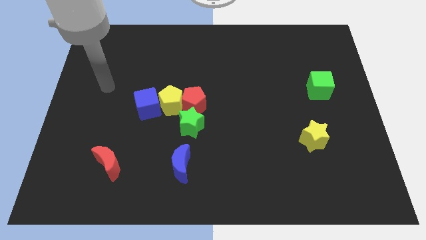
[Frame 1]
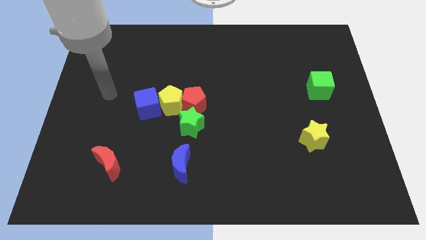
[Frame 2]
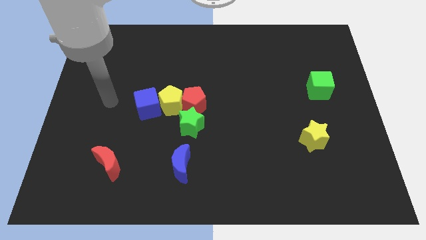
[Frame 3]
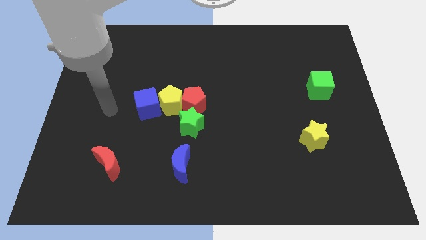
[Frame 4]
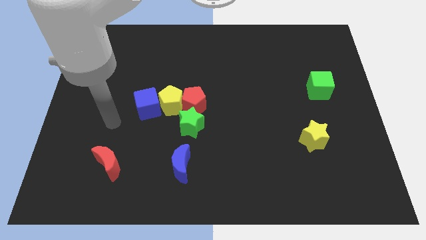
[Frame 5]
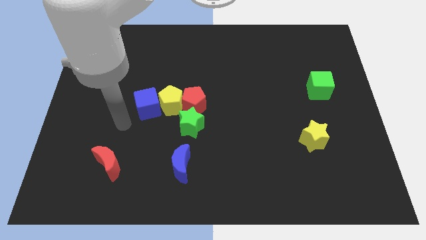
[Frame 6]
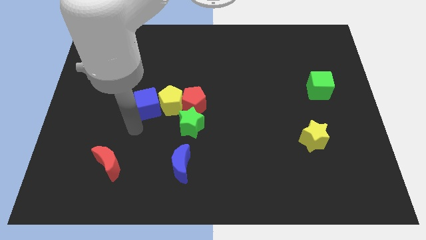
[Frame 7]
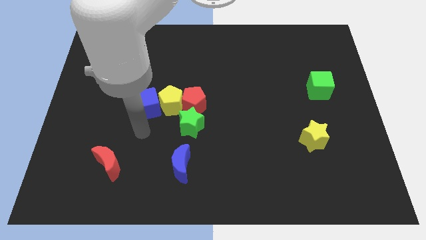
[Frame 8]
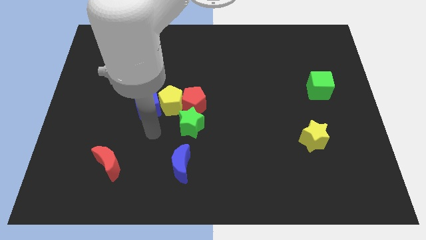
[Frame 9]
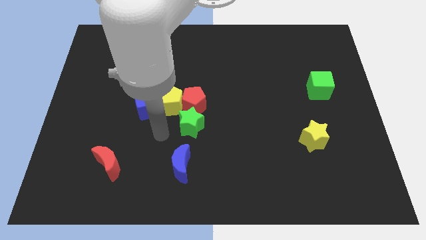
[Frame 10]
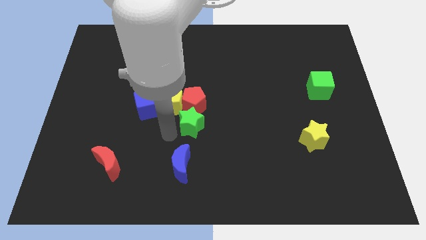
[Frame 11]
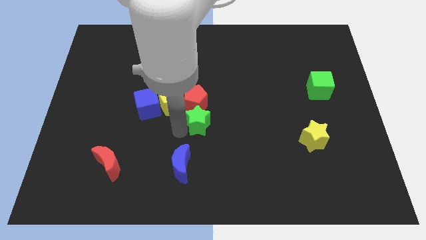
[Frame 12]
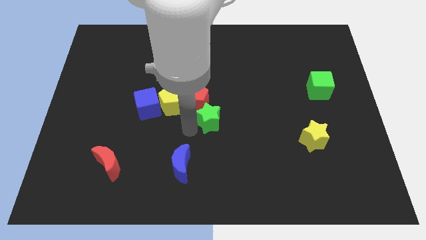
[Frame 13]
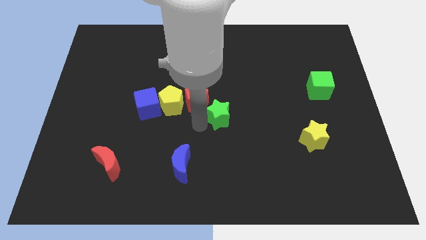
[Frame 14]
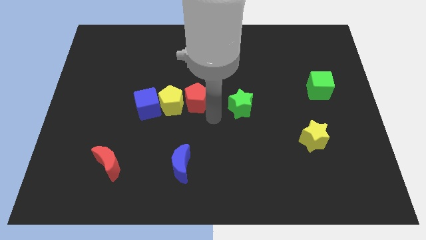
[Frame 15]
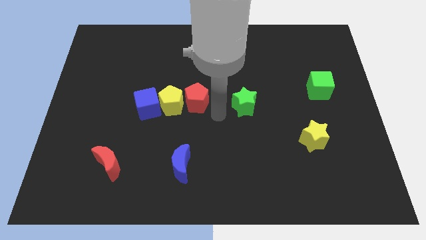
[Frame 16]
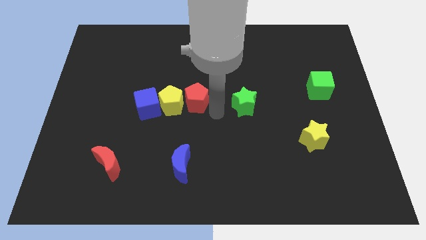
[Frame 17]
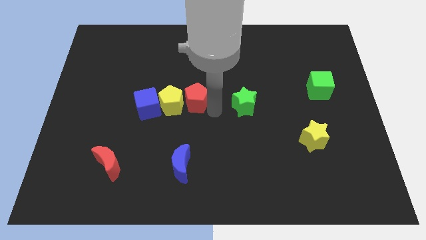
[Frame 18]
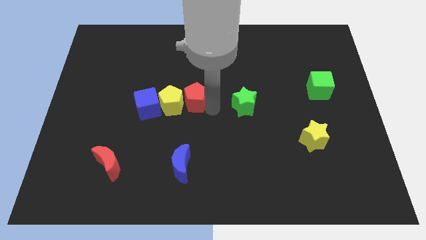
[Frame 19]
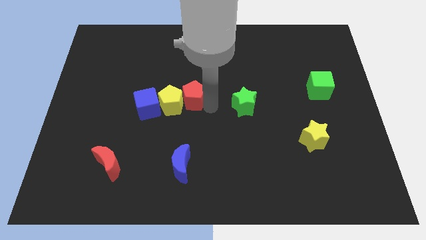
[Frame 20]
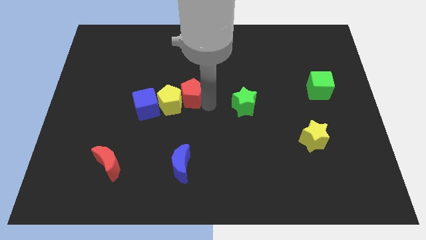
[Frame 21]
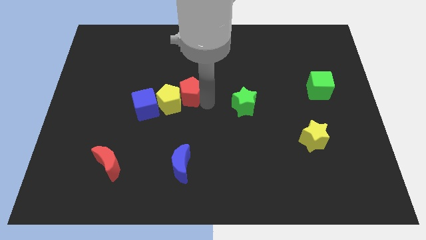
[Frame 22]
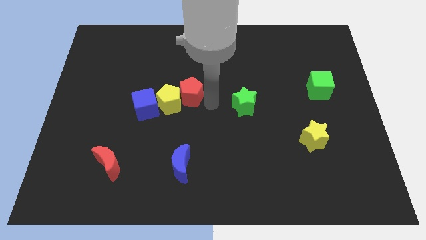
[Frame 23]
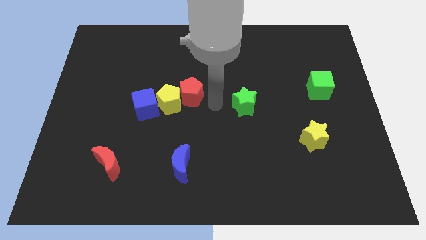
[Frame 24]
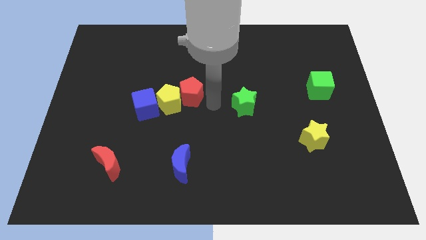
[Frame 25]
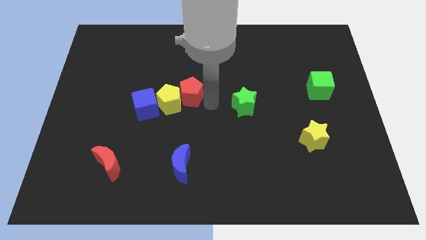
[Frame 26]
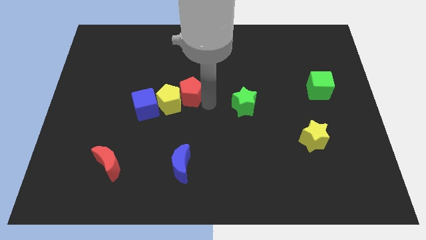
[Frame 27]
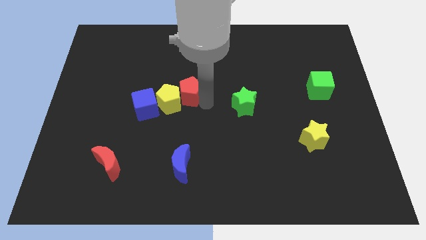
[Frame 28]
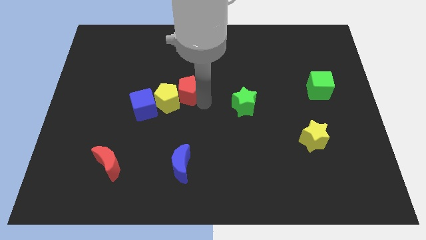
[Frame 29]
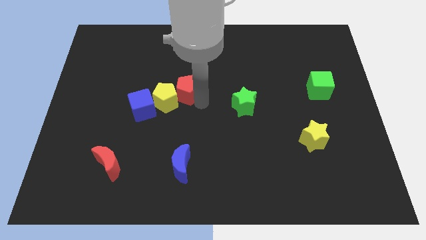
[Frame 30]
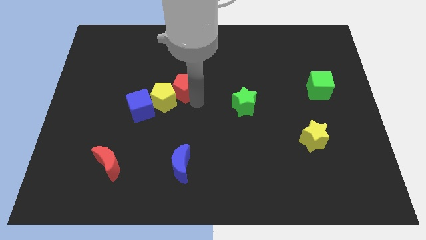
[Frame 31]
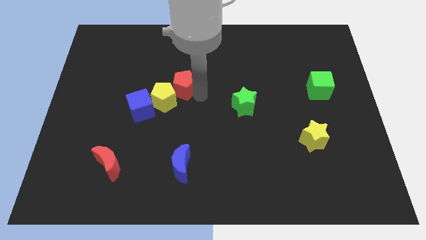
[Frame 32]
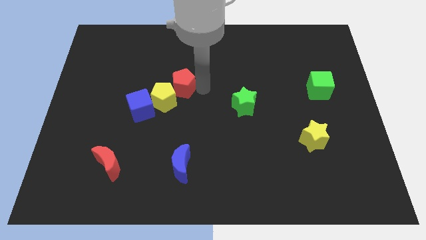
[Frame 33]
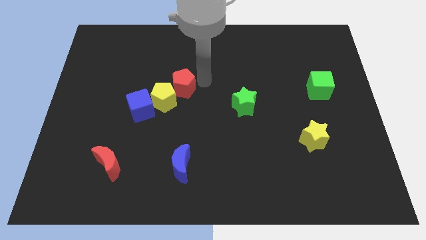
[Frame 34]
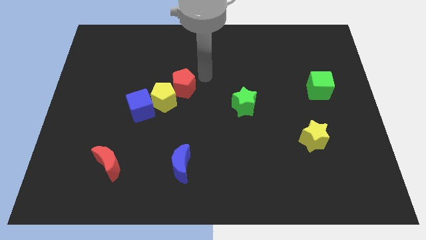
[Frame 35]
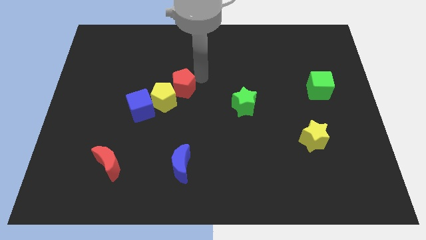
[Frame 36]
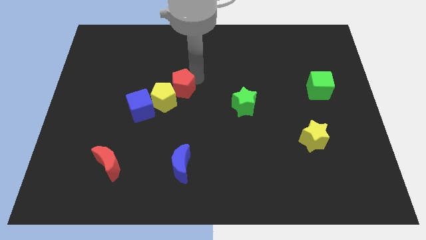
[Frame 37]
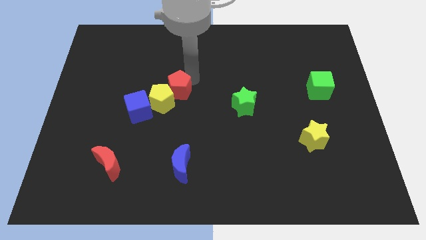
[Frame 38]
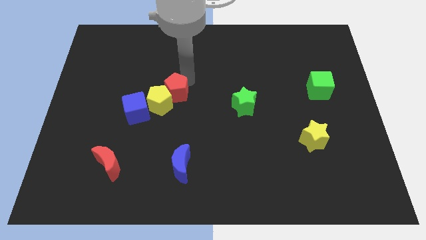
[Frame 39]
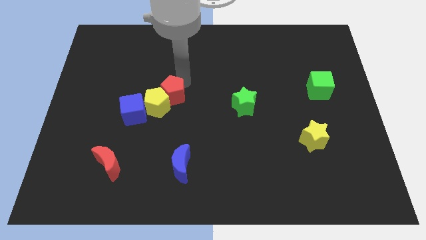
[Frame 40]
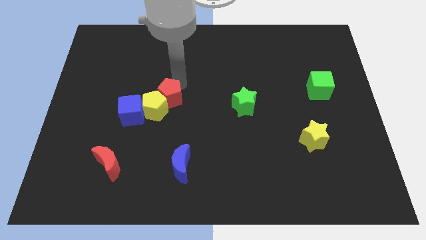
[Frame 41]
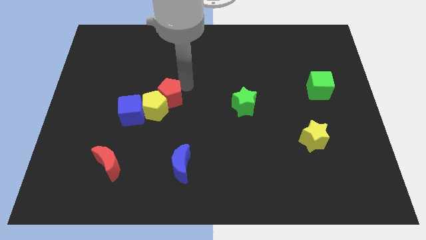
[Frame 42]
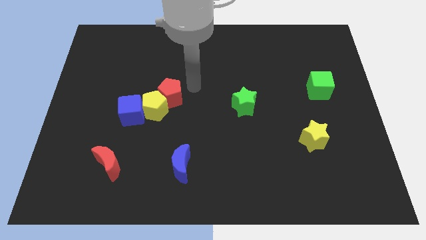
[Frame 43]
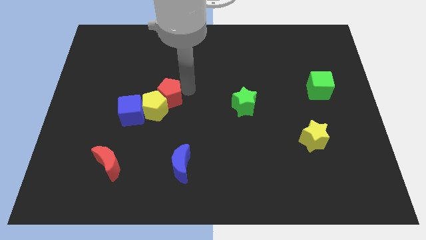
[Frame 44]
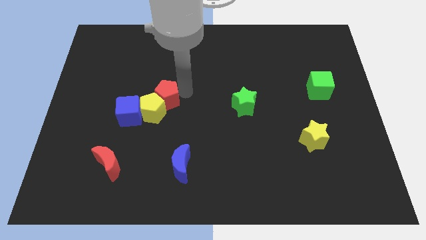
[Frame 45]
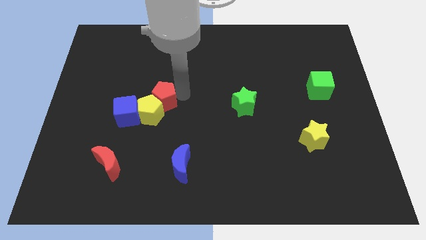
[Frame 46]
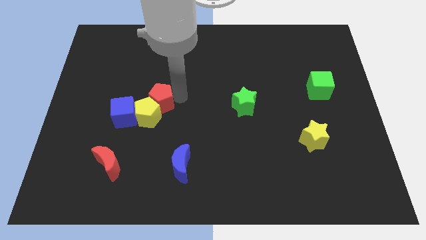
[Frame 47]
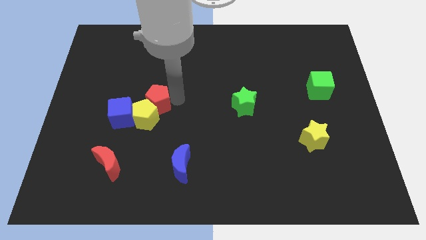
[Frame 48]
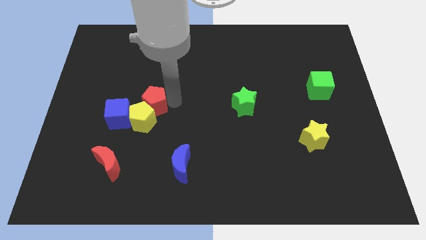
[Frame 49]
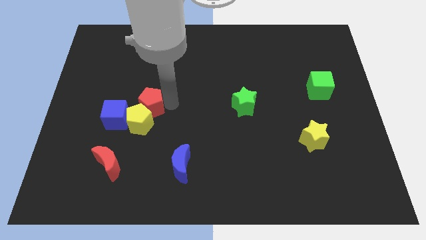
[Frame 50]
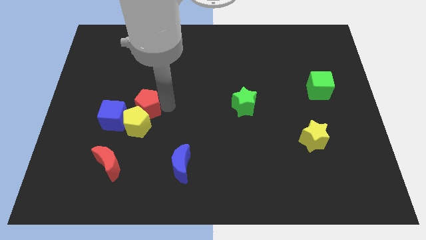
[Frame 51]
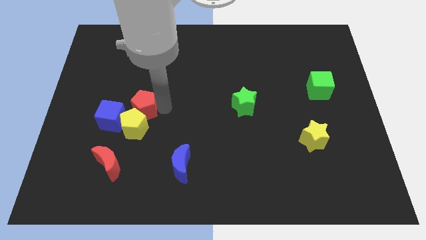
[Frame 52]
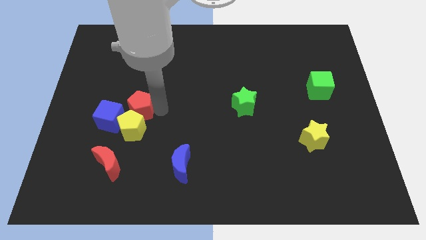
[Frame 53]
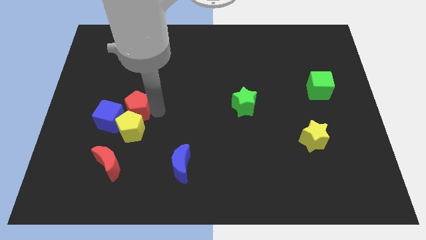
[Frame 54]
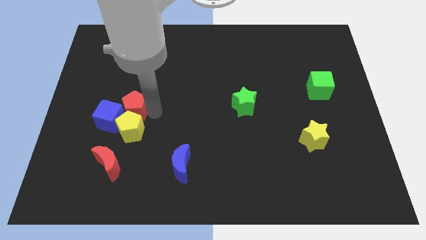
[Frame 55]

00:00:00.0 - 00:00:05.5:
push the red pentagon towards the blue cube

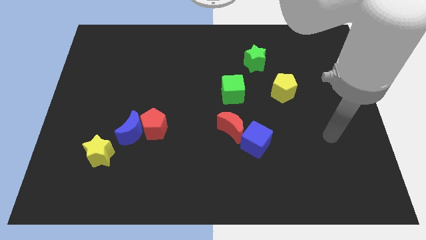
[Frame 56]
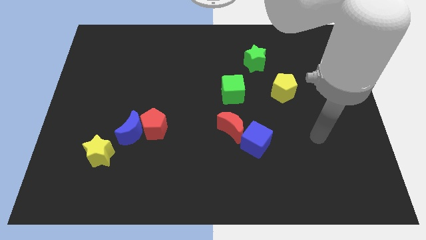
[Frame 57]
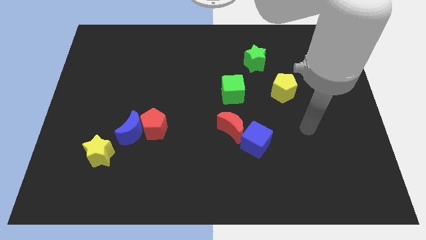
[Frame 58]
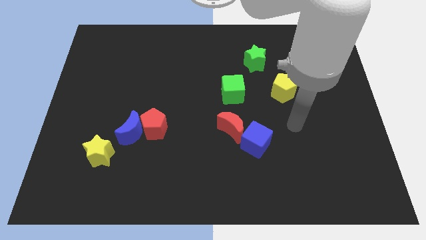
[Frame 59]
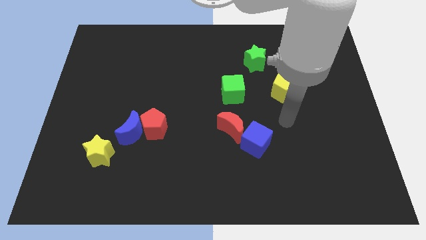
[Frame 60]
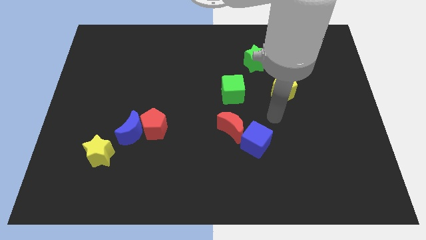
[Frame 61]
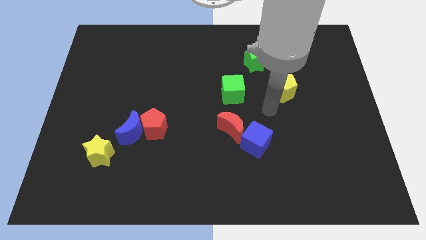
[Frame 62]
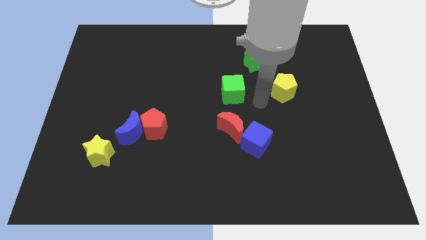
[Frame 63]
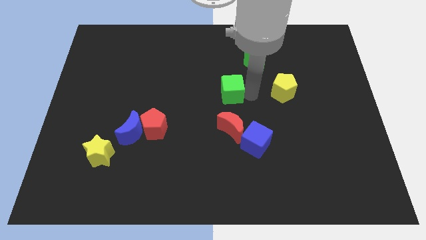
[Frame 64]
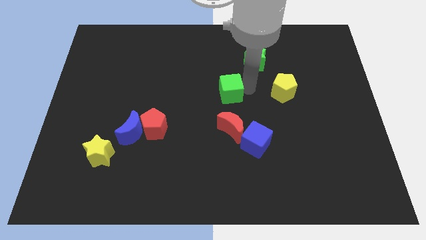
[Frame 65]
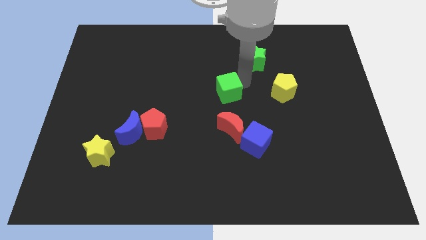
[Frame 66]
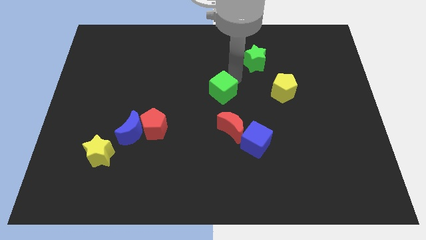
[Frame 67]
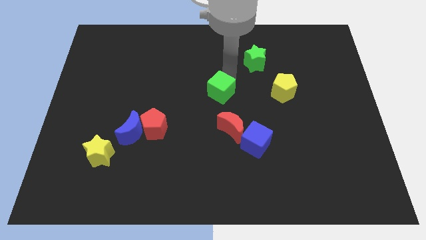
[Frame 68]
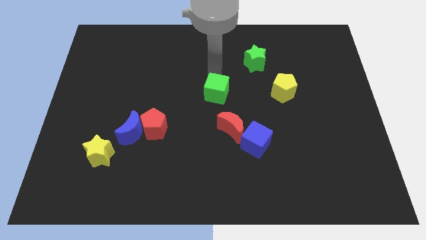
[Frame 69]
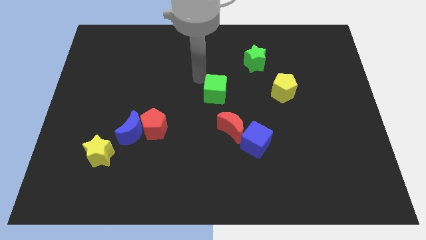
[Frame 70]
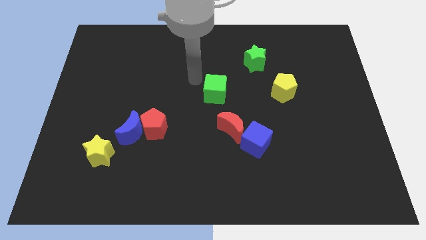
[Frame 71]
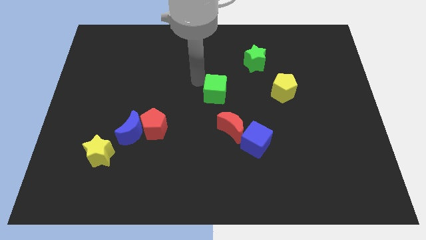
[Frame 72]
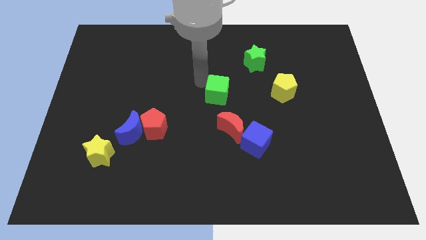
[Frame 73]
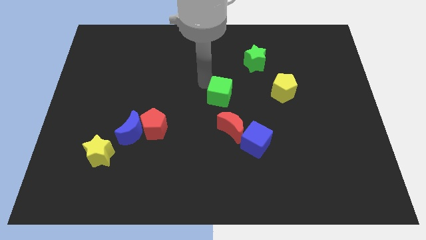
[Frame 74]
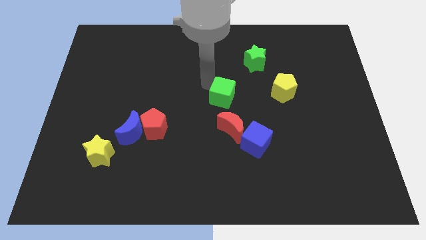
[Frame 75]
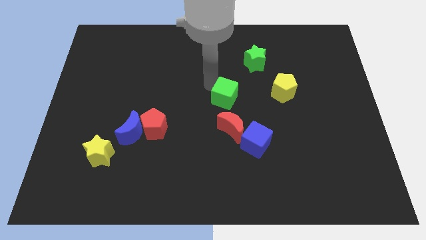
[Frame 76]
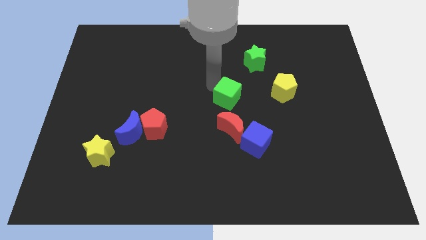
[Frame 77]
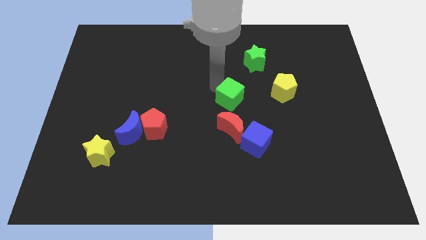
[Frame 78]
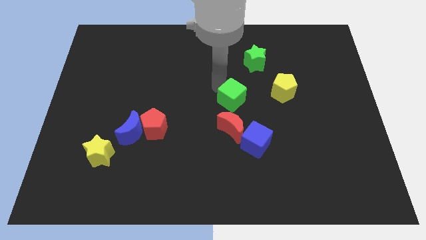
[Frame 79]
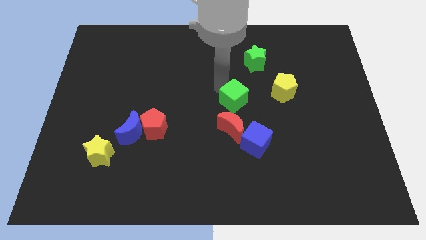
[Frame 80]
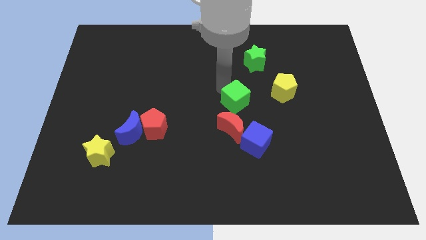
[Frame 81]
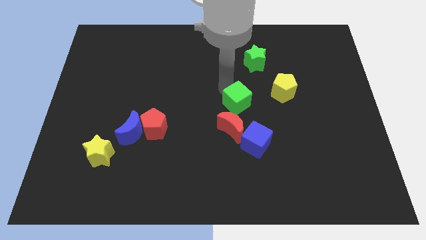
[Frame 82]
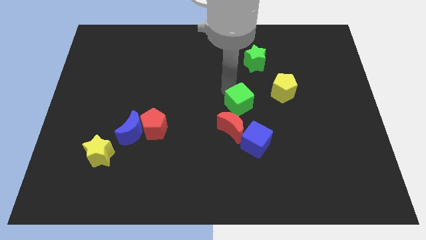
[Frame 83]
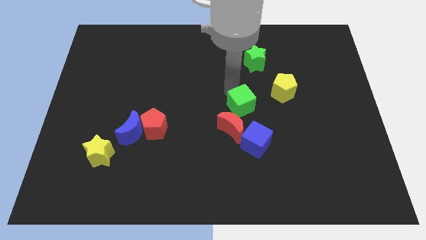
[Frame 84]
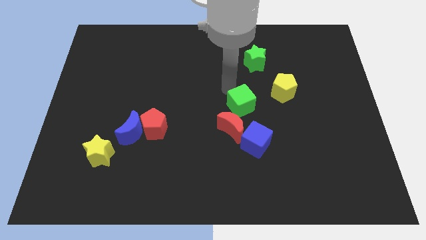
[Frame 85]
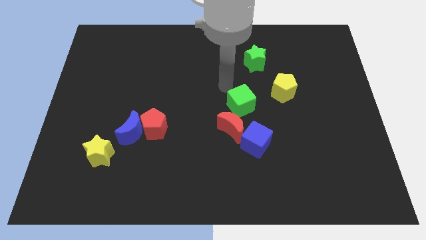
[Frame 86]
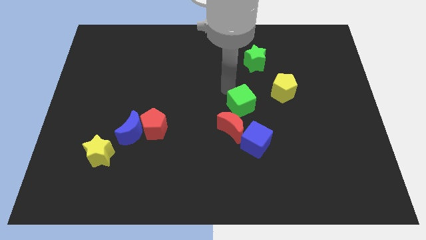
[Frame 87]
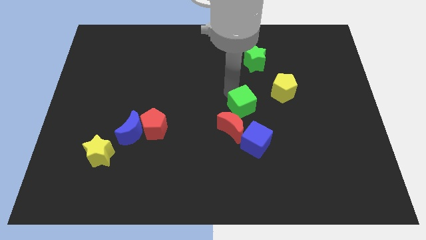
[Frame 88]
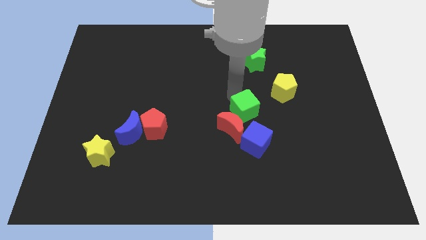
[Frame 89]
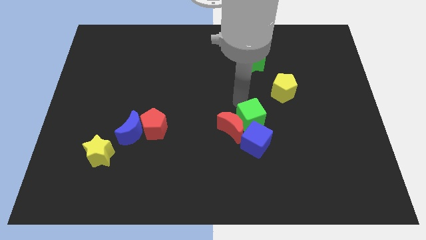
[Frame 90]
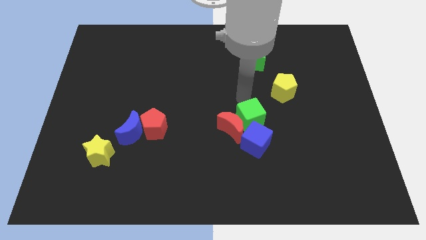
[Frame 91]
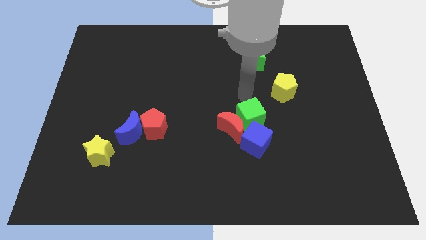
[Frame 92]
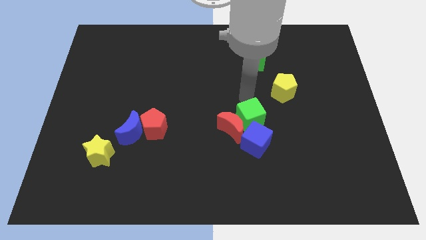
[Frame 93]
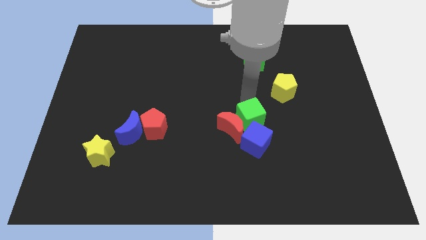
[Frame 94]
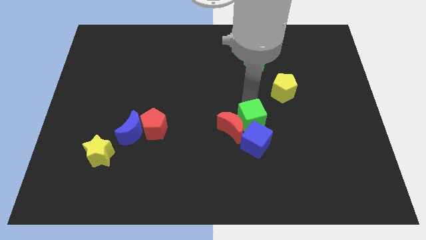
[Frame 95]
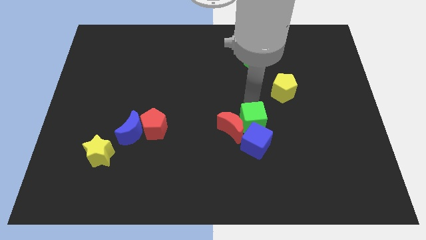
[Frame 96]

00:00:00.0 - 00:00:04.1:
slide the green cube towards the blue cube
